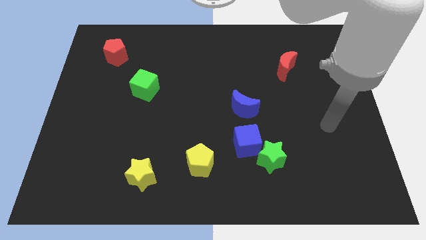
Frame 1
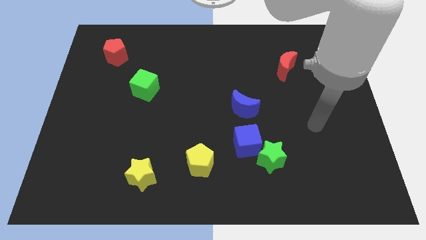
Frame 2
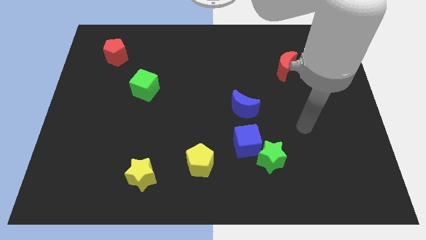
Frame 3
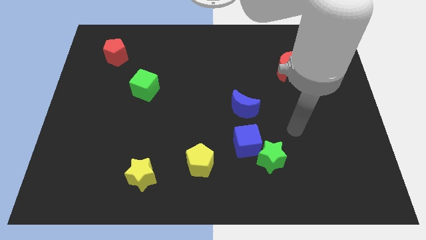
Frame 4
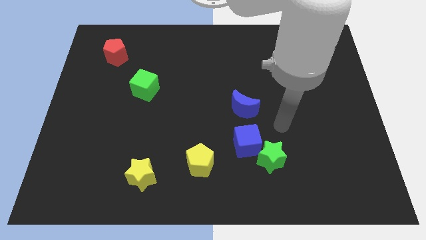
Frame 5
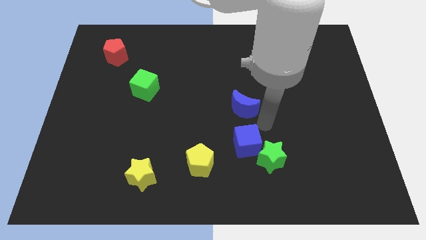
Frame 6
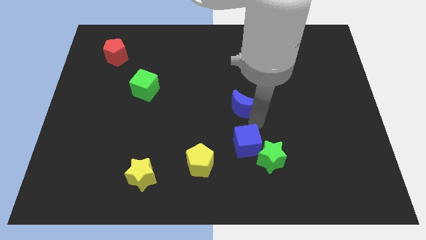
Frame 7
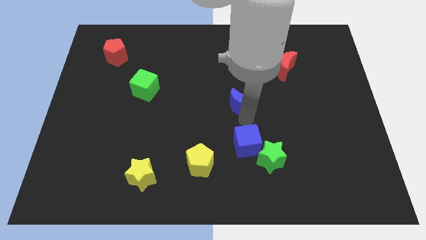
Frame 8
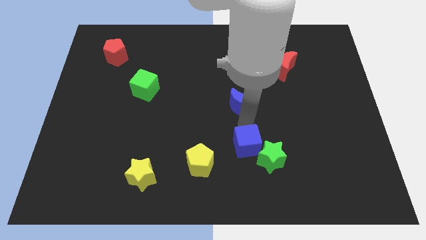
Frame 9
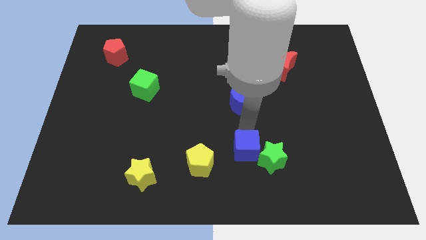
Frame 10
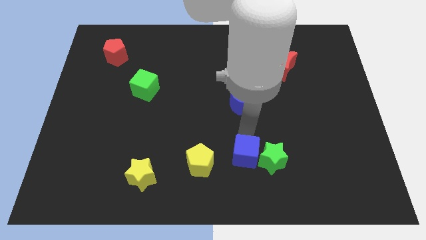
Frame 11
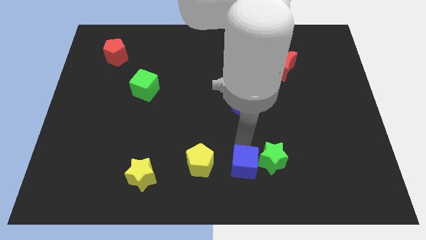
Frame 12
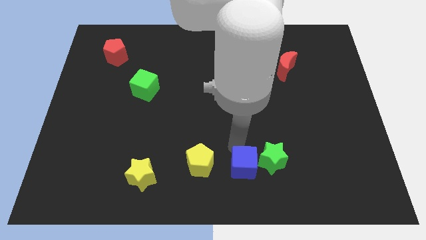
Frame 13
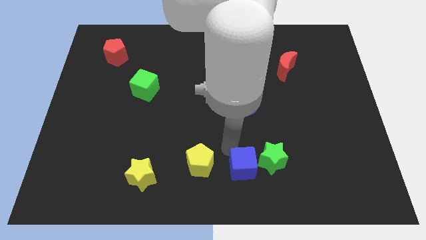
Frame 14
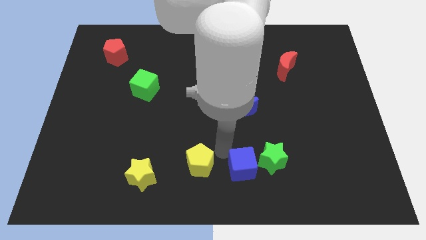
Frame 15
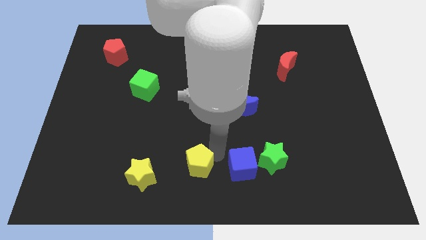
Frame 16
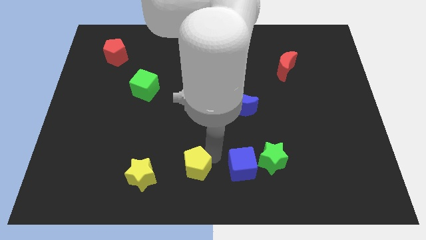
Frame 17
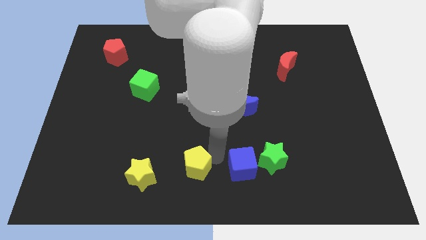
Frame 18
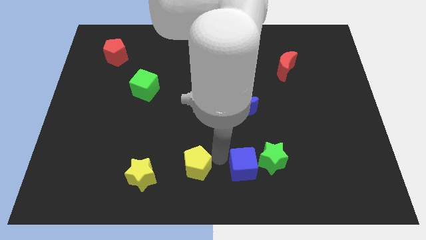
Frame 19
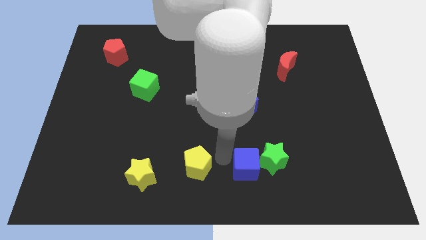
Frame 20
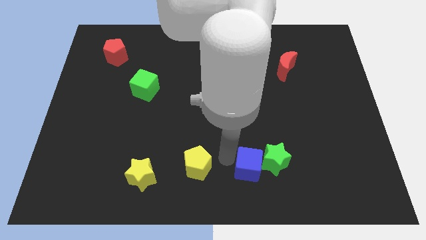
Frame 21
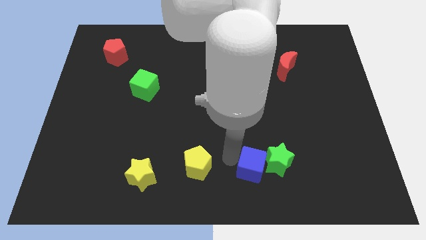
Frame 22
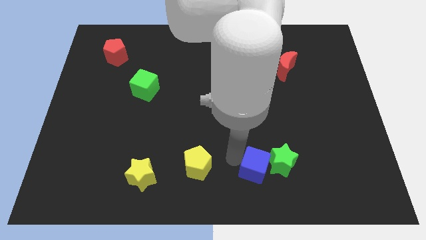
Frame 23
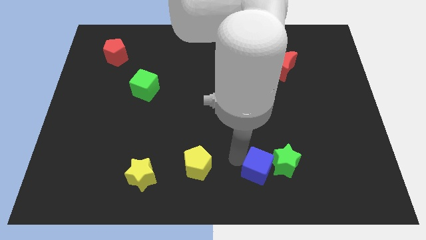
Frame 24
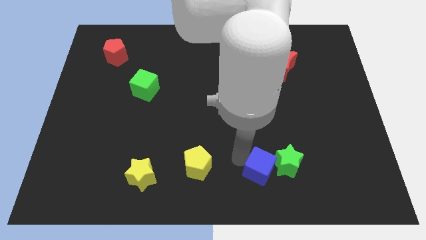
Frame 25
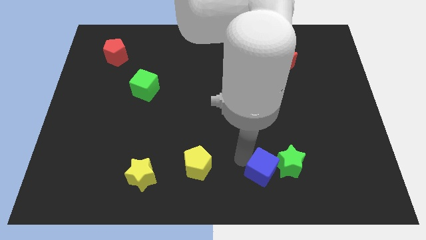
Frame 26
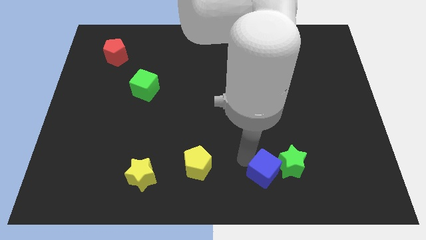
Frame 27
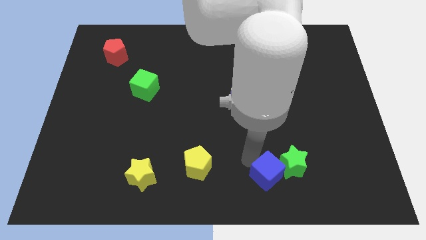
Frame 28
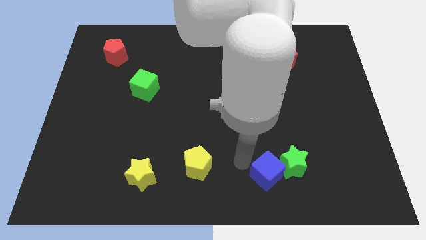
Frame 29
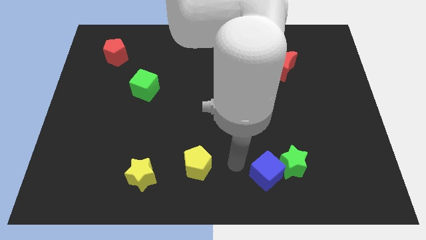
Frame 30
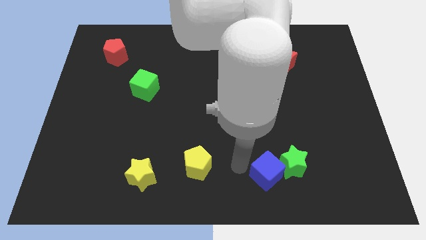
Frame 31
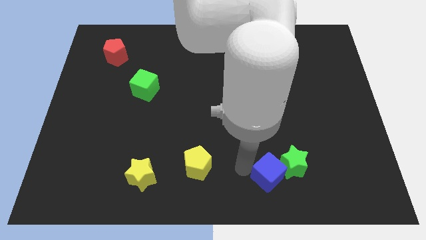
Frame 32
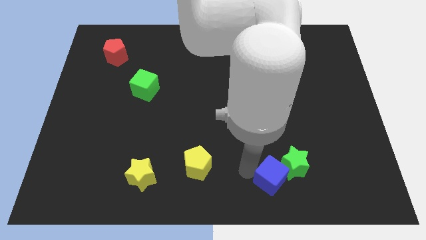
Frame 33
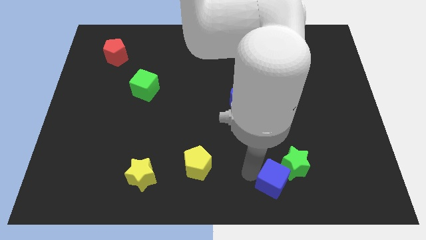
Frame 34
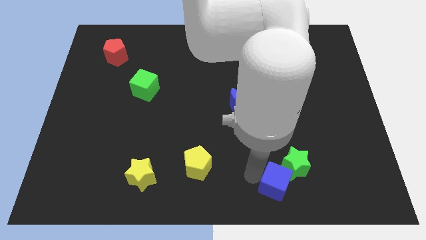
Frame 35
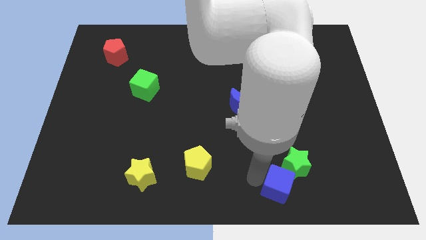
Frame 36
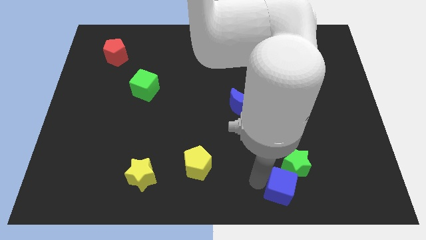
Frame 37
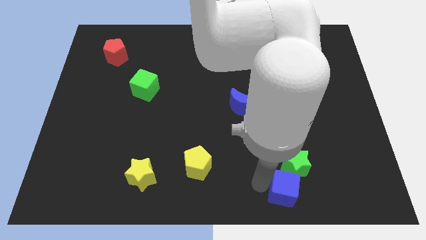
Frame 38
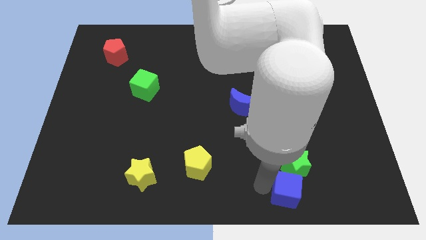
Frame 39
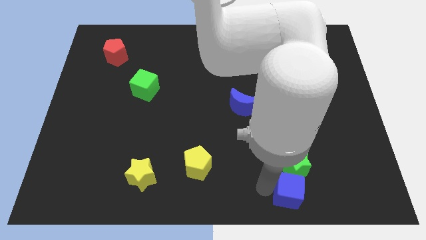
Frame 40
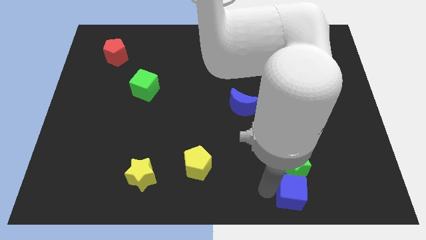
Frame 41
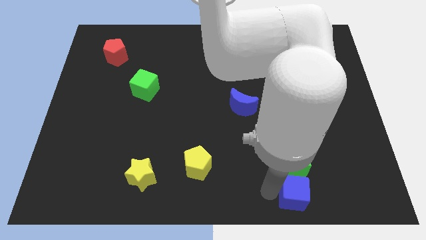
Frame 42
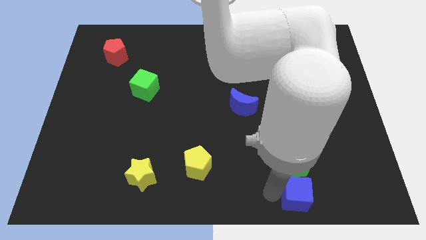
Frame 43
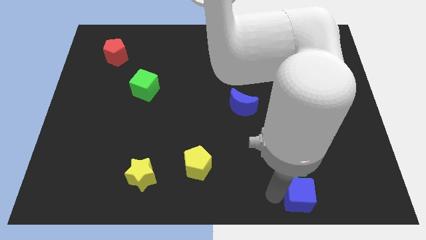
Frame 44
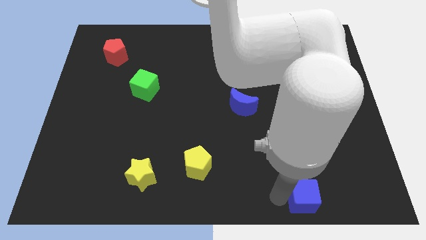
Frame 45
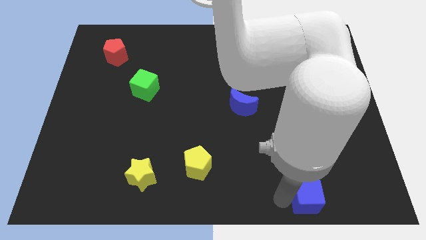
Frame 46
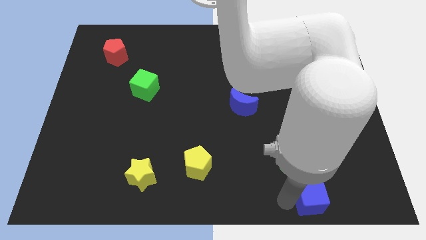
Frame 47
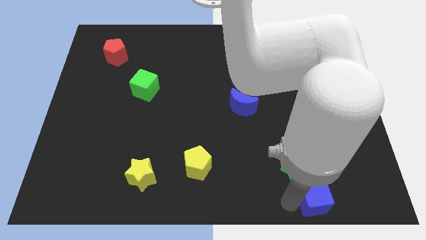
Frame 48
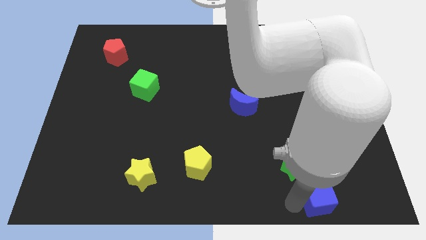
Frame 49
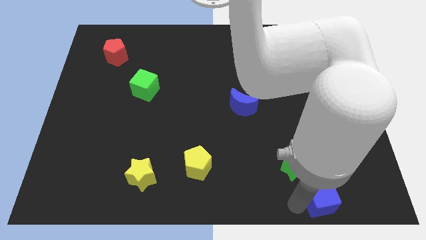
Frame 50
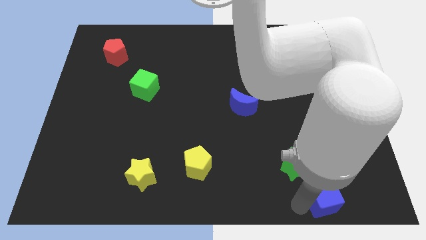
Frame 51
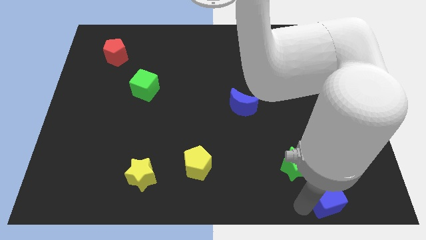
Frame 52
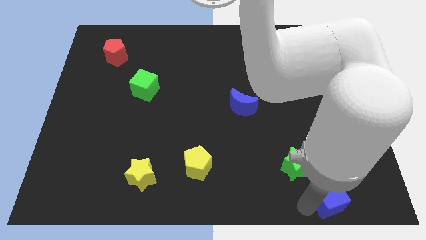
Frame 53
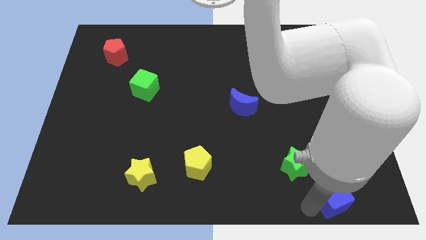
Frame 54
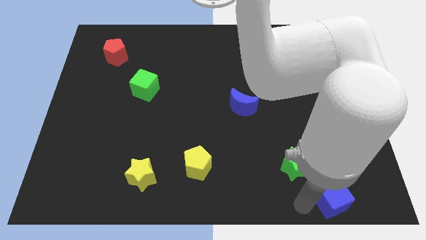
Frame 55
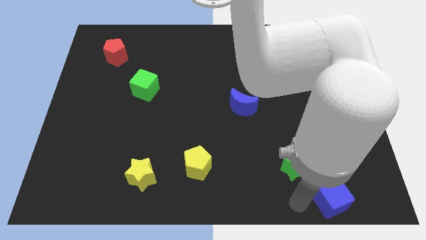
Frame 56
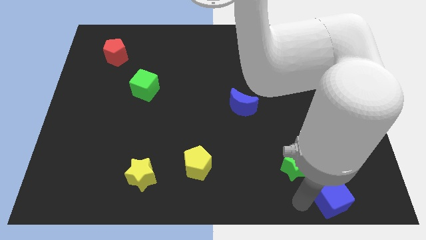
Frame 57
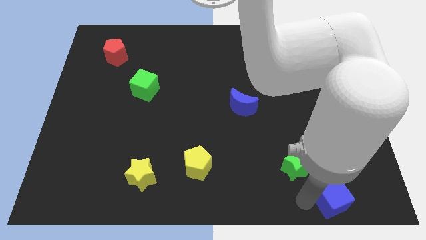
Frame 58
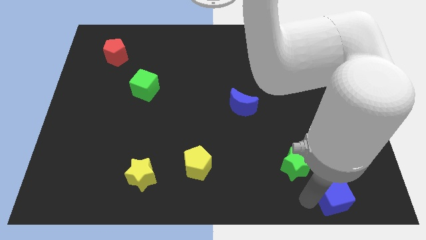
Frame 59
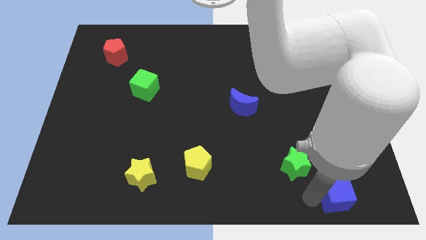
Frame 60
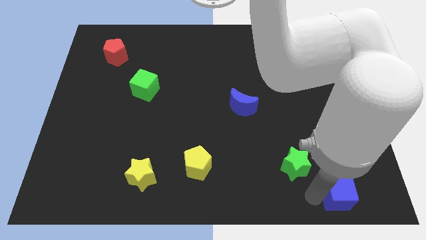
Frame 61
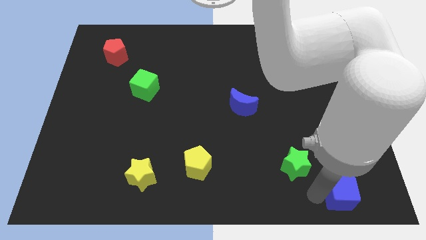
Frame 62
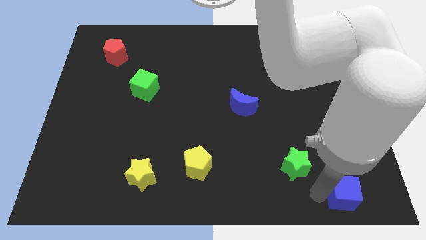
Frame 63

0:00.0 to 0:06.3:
move the blue cube to the bottom right of the board

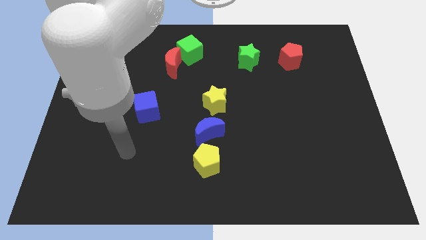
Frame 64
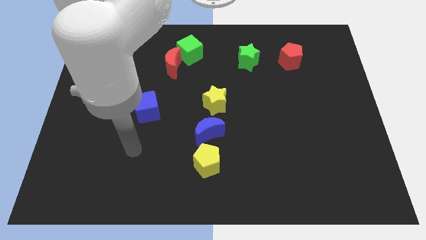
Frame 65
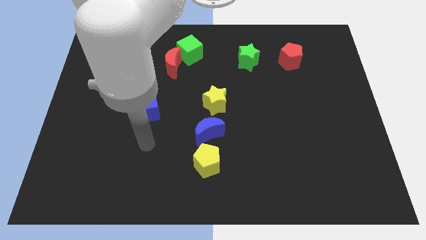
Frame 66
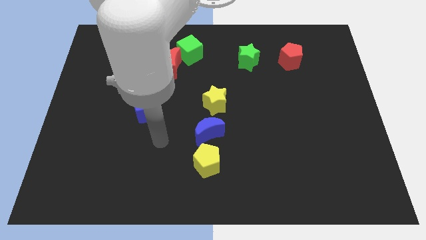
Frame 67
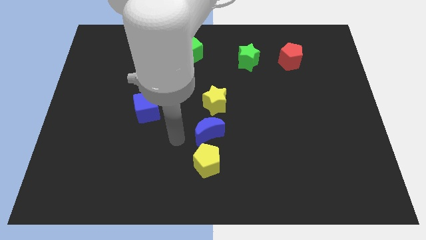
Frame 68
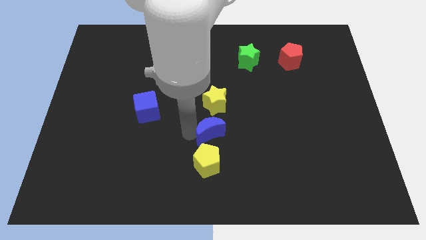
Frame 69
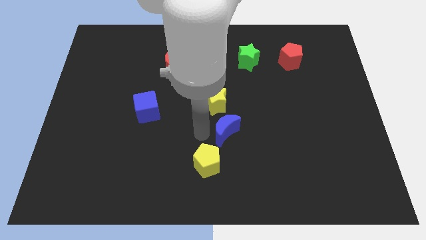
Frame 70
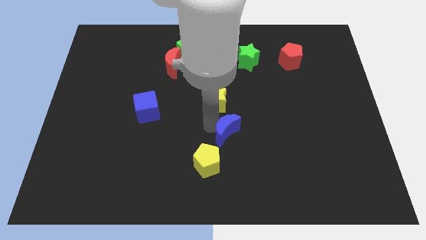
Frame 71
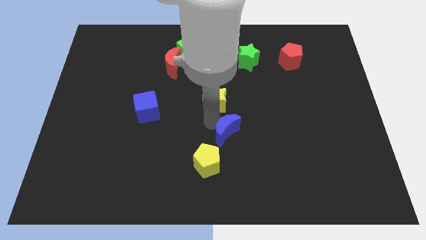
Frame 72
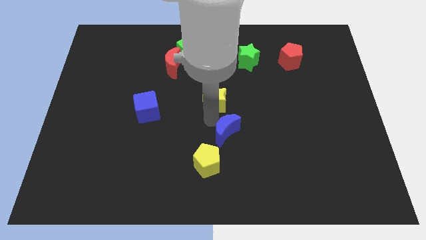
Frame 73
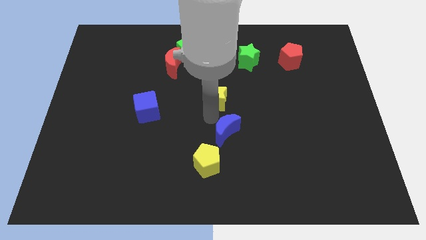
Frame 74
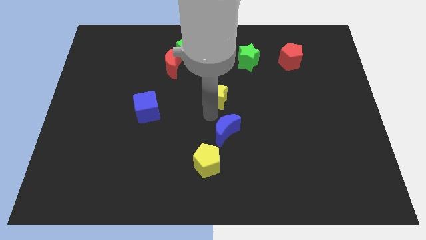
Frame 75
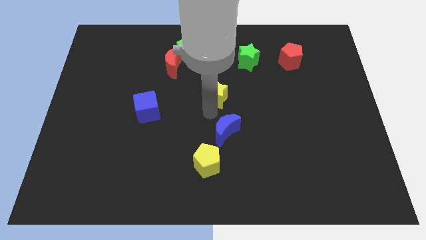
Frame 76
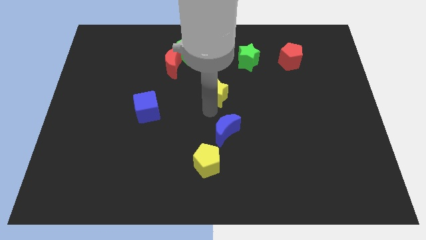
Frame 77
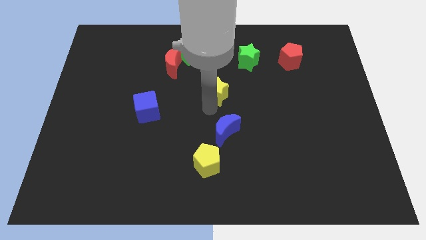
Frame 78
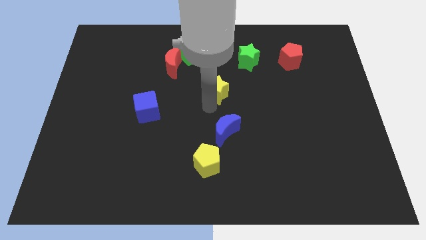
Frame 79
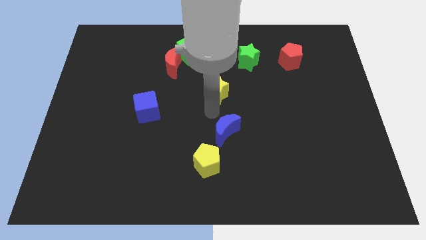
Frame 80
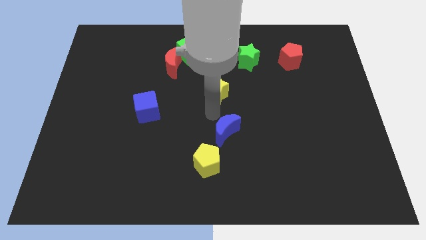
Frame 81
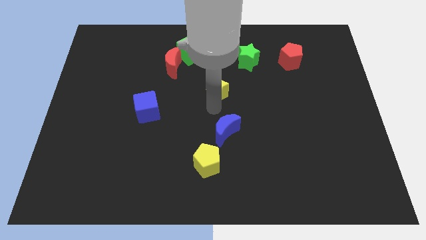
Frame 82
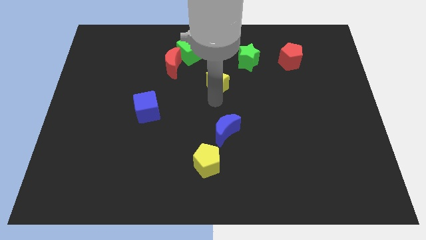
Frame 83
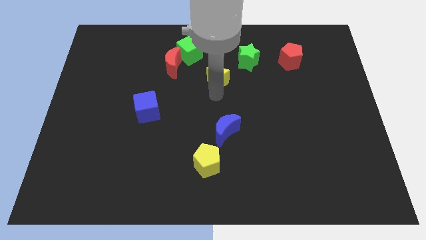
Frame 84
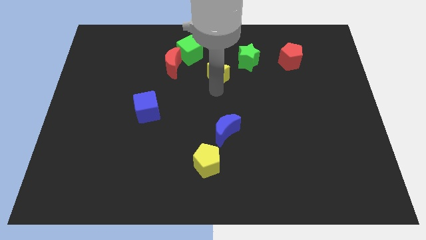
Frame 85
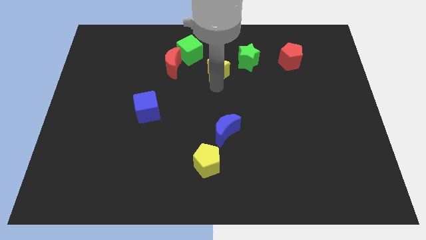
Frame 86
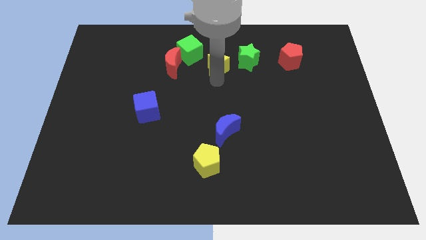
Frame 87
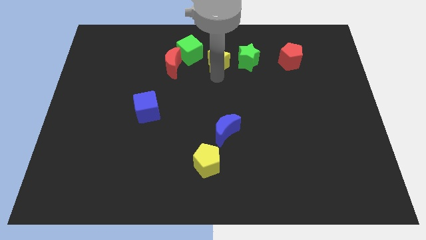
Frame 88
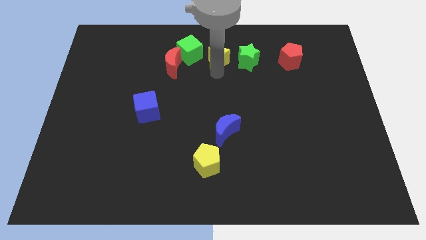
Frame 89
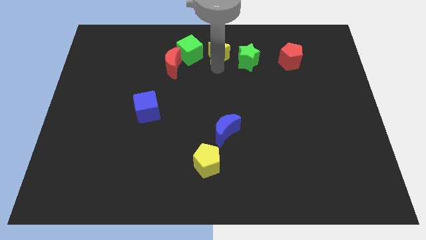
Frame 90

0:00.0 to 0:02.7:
move the yellow star to the towards your base
